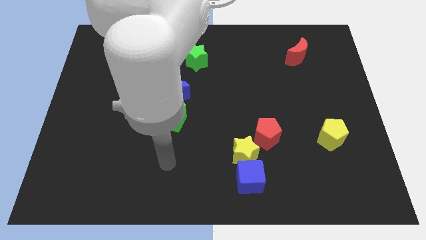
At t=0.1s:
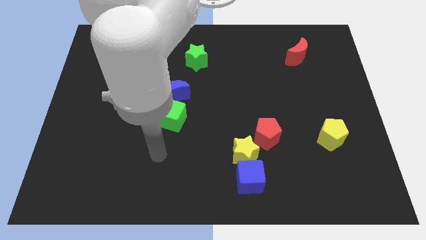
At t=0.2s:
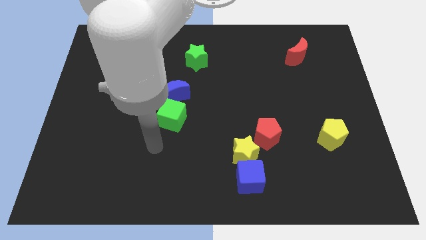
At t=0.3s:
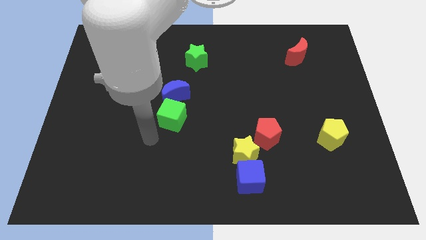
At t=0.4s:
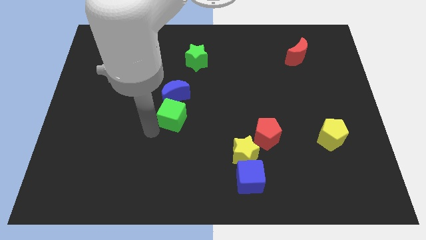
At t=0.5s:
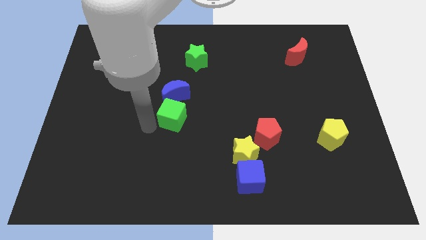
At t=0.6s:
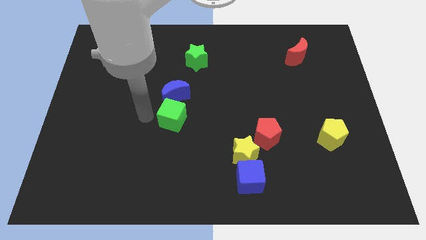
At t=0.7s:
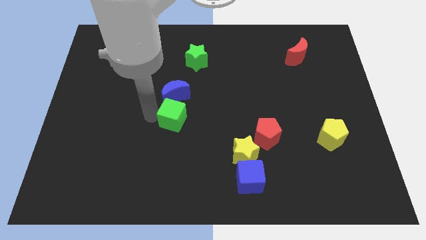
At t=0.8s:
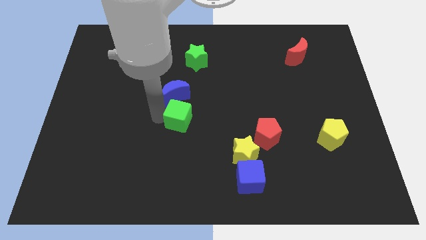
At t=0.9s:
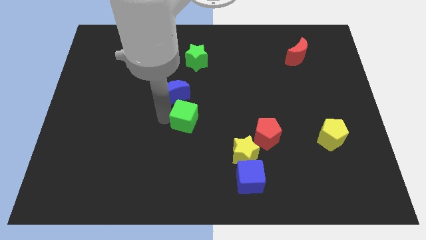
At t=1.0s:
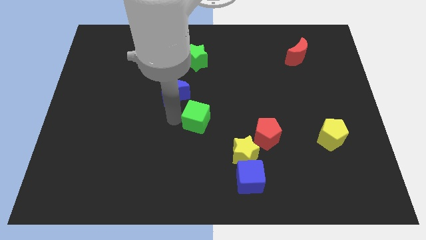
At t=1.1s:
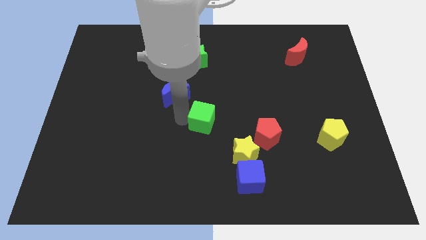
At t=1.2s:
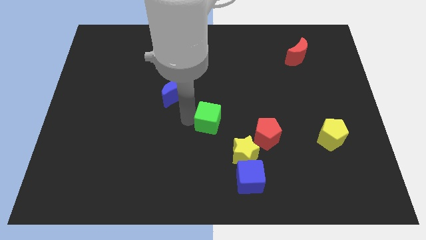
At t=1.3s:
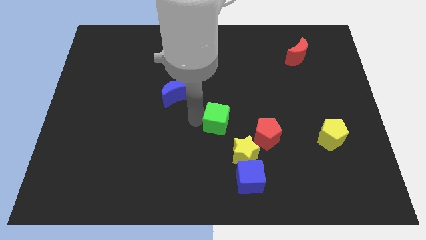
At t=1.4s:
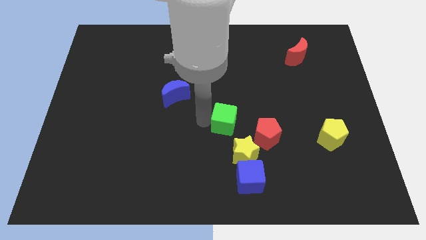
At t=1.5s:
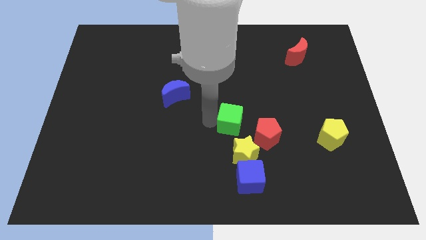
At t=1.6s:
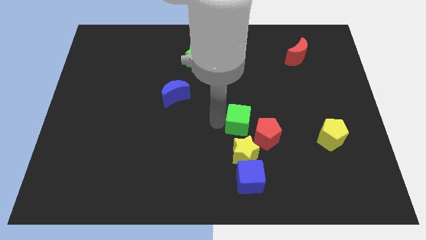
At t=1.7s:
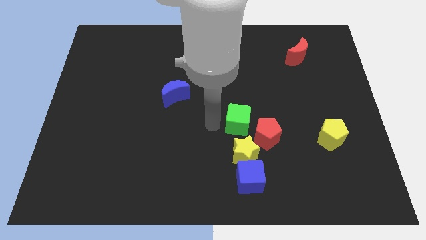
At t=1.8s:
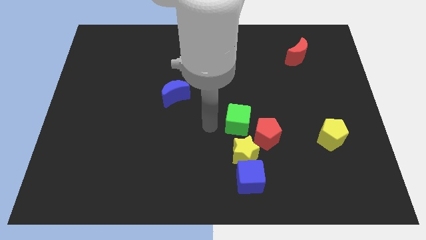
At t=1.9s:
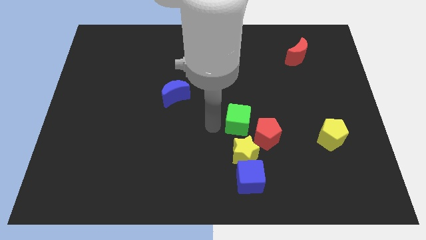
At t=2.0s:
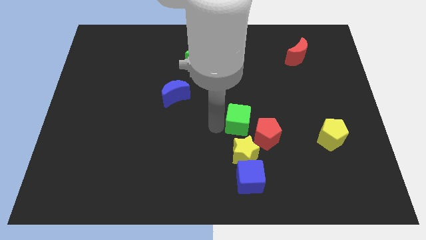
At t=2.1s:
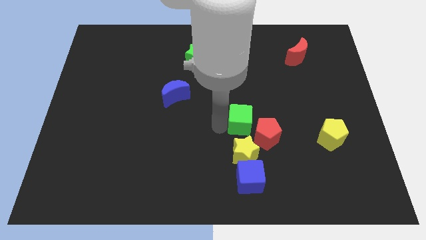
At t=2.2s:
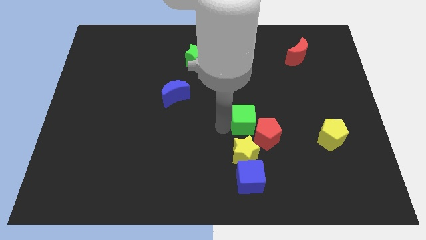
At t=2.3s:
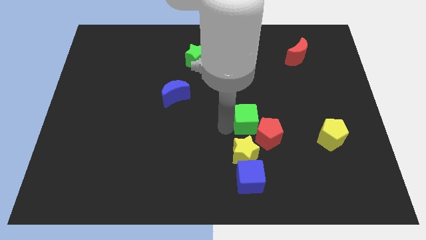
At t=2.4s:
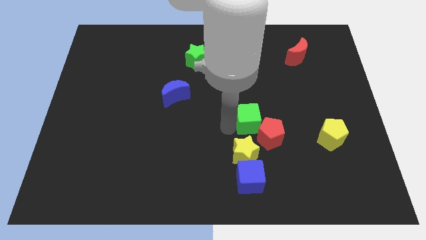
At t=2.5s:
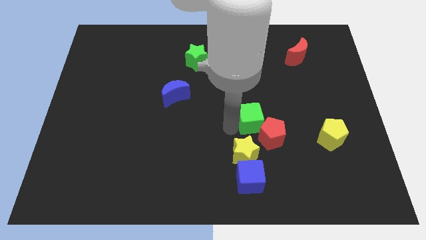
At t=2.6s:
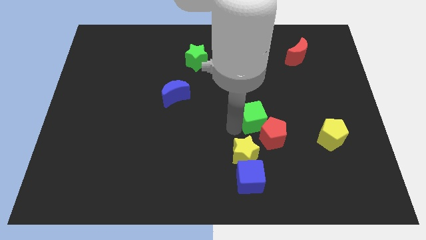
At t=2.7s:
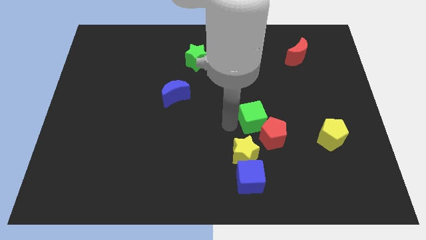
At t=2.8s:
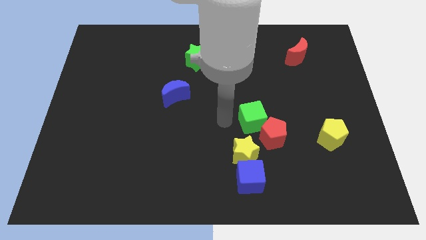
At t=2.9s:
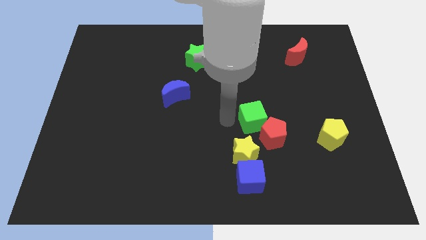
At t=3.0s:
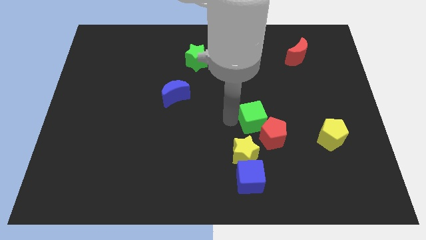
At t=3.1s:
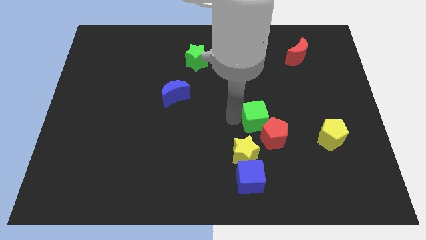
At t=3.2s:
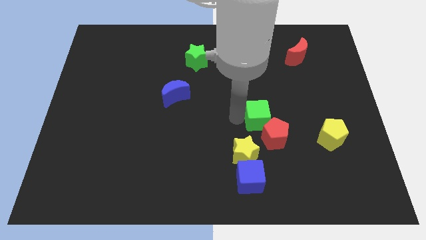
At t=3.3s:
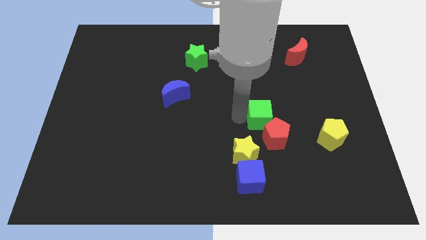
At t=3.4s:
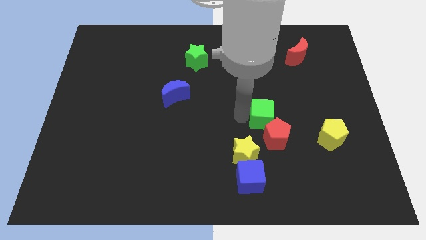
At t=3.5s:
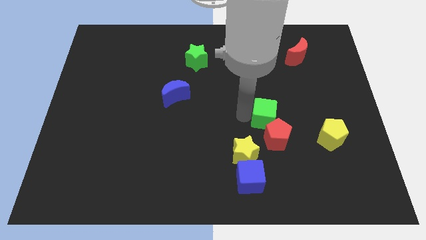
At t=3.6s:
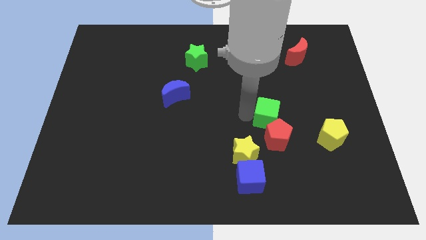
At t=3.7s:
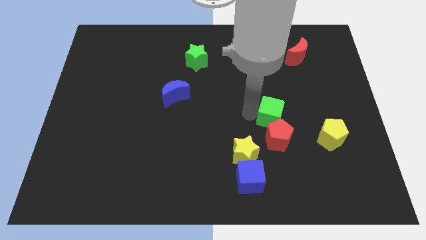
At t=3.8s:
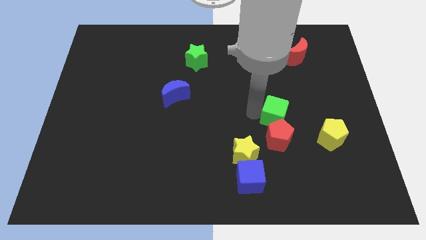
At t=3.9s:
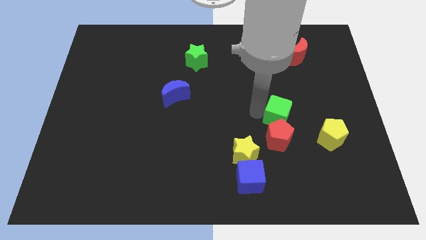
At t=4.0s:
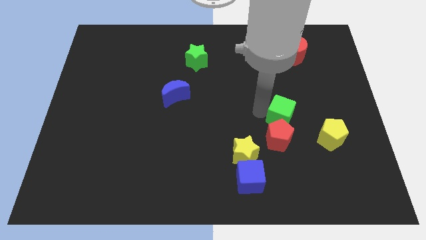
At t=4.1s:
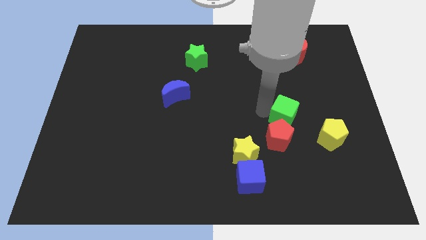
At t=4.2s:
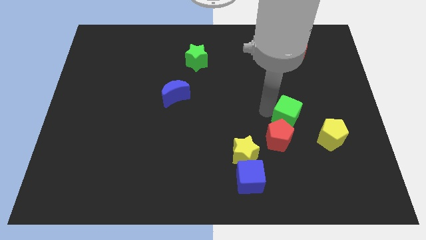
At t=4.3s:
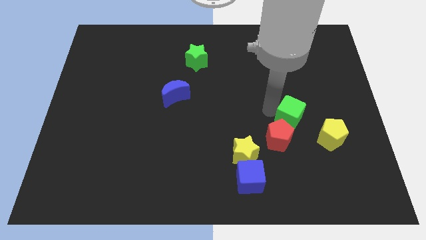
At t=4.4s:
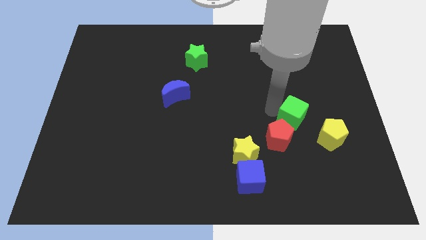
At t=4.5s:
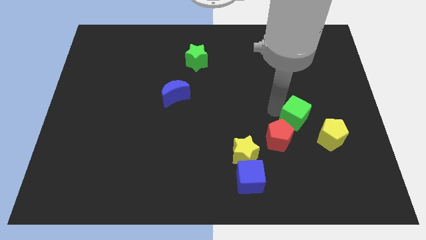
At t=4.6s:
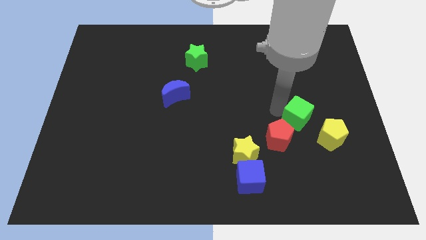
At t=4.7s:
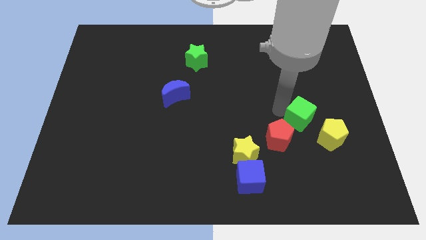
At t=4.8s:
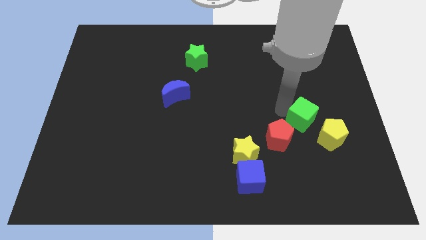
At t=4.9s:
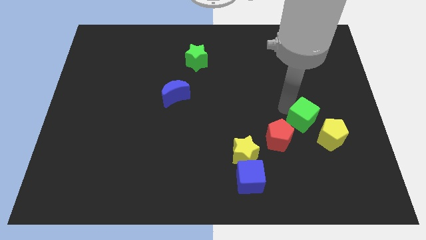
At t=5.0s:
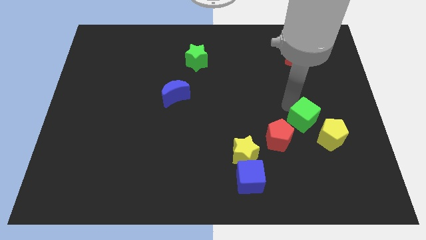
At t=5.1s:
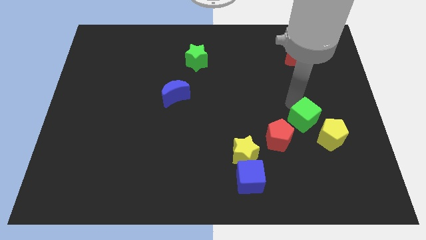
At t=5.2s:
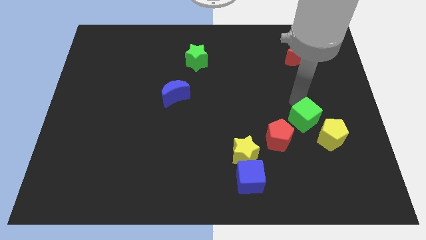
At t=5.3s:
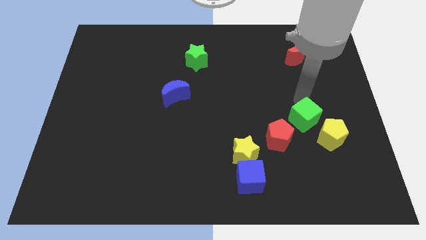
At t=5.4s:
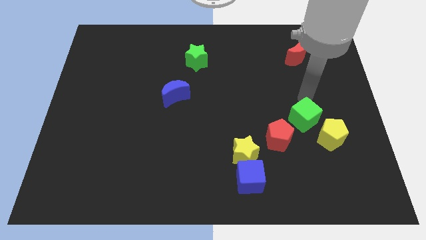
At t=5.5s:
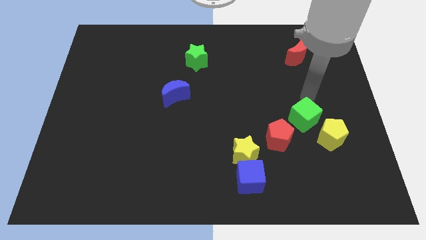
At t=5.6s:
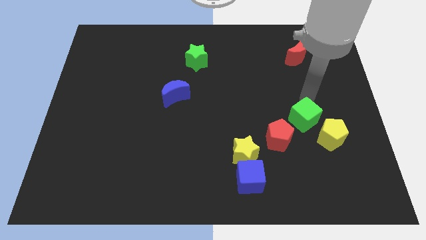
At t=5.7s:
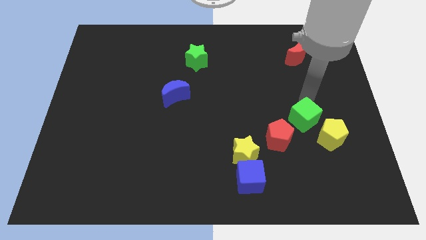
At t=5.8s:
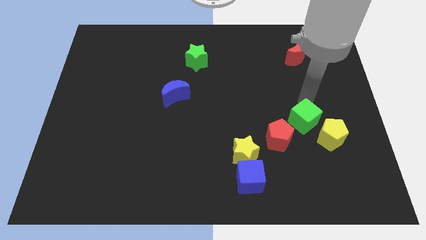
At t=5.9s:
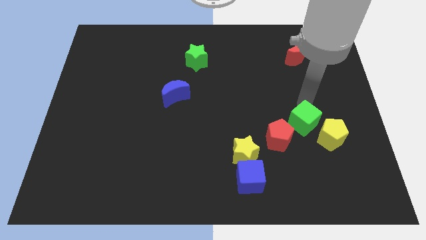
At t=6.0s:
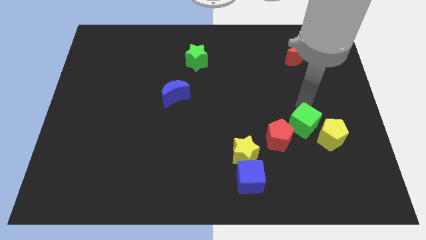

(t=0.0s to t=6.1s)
push the green cube next to the yellow pentagon

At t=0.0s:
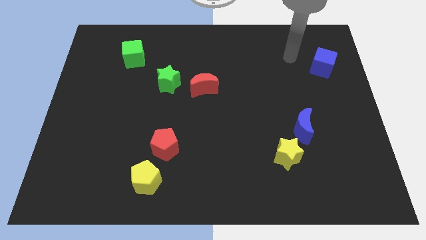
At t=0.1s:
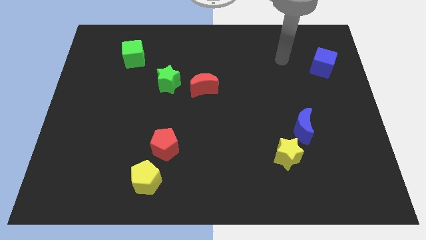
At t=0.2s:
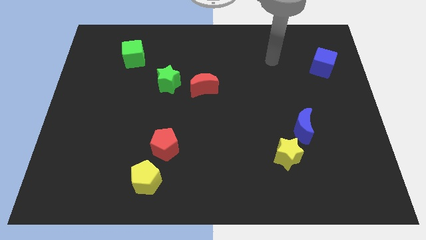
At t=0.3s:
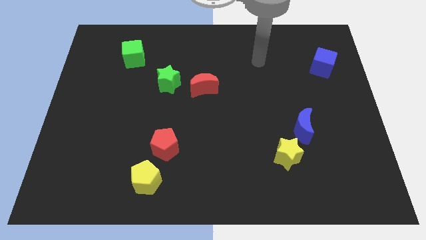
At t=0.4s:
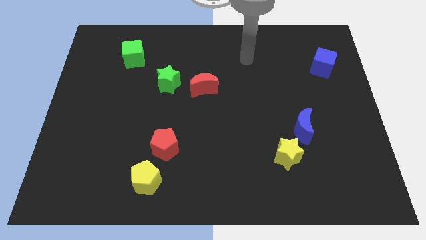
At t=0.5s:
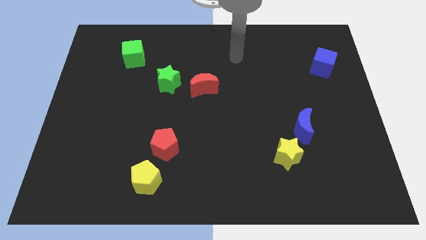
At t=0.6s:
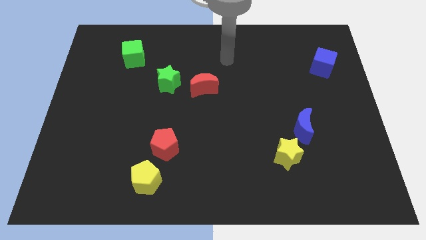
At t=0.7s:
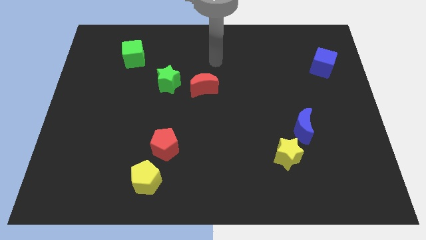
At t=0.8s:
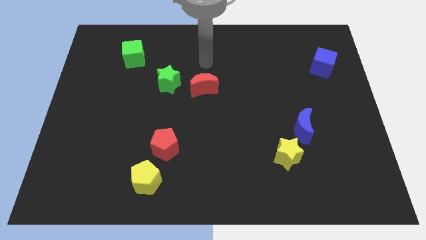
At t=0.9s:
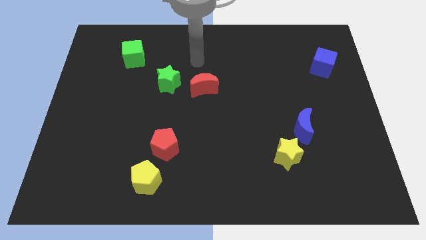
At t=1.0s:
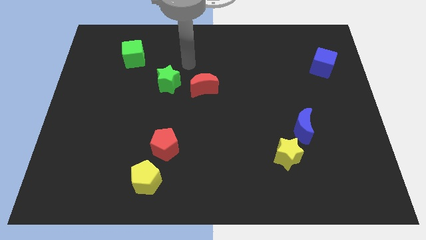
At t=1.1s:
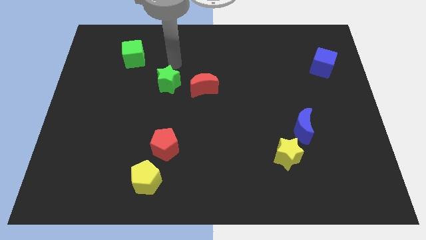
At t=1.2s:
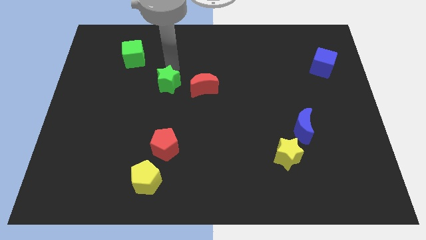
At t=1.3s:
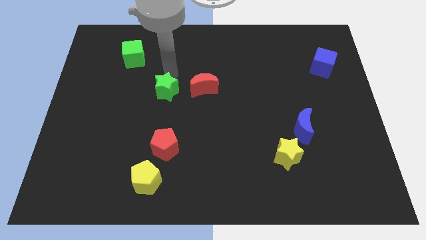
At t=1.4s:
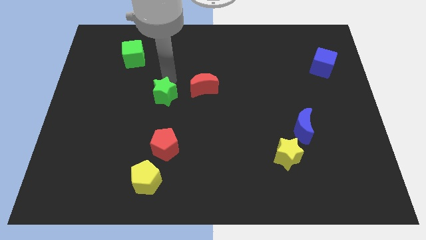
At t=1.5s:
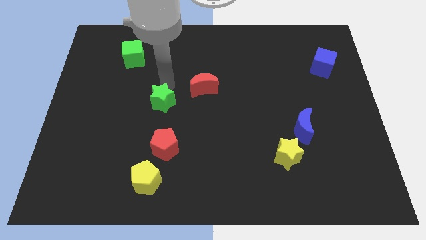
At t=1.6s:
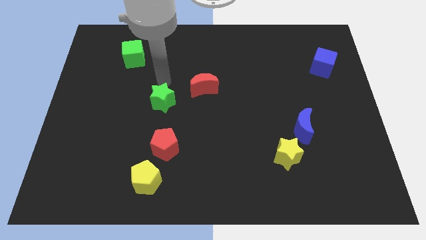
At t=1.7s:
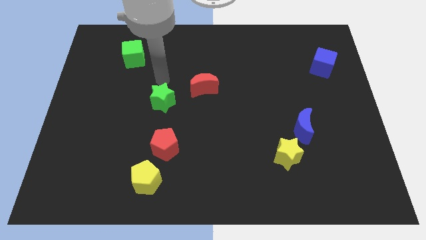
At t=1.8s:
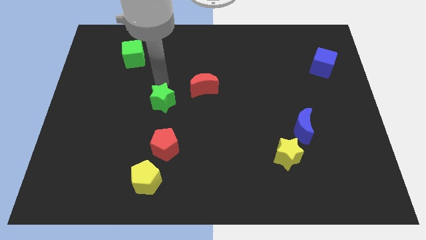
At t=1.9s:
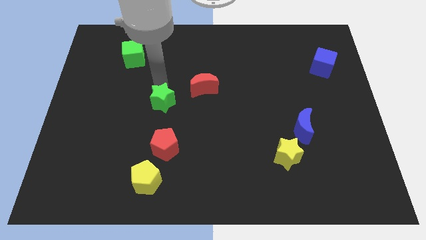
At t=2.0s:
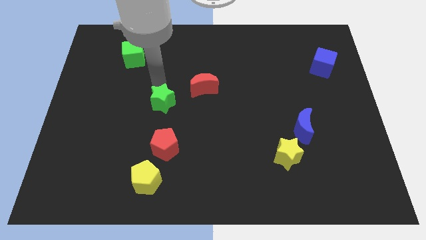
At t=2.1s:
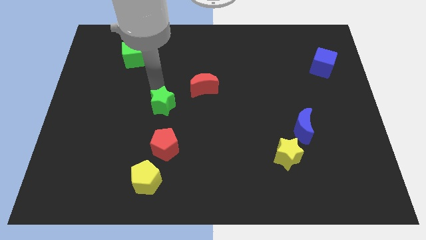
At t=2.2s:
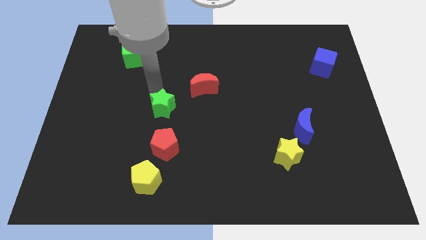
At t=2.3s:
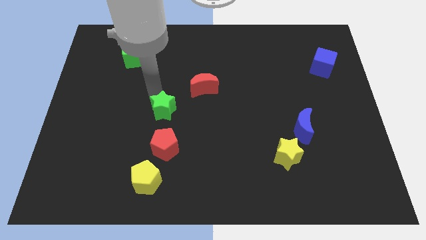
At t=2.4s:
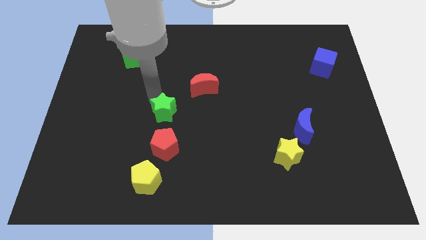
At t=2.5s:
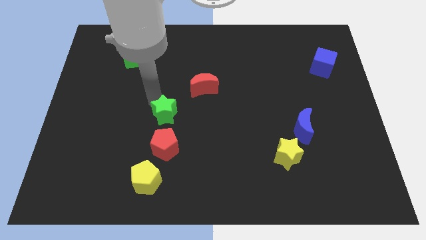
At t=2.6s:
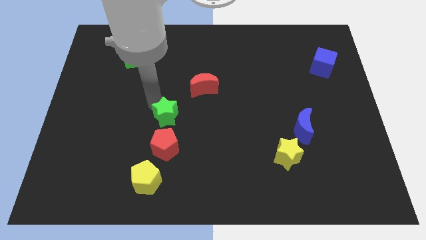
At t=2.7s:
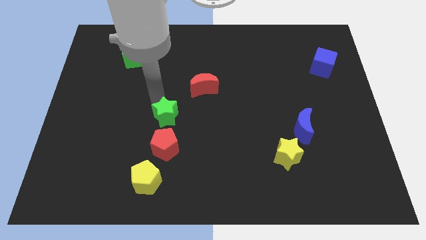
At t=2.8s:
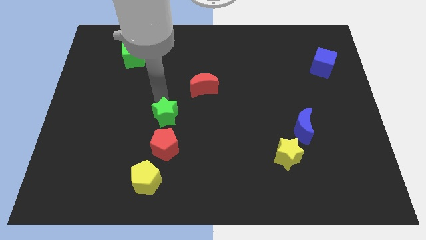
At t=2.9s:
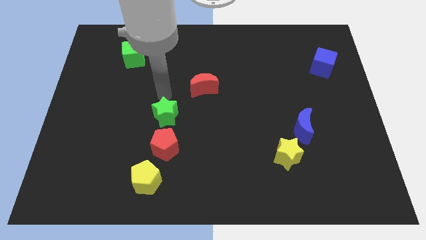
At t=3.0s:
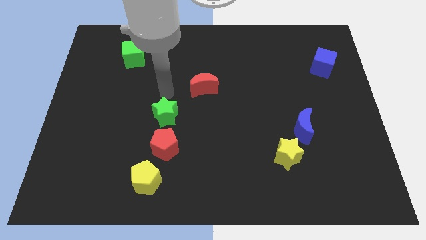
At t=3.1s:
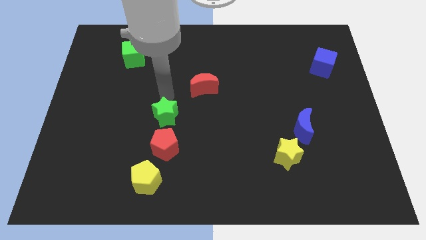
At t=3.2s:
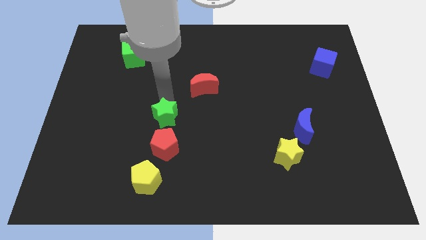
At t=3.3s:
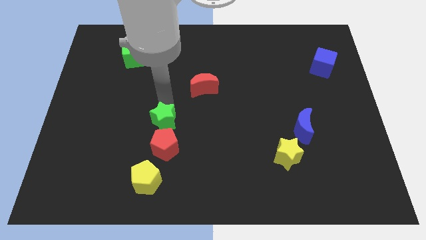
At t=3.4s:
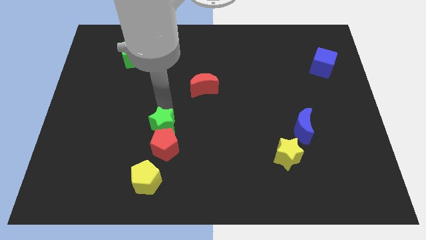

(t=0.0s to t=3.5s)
move the green star close to the red pentagon
